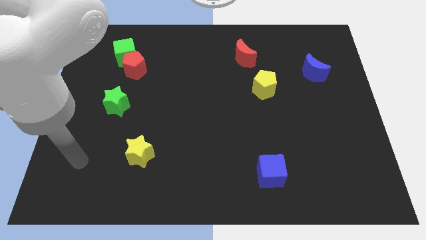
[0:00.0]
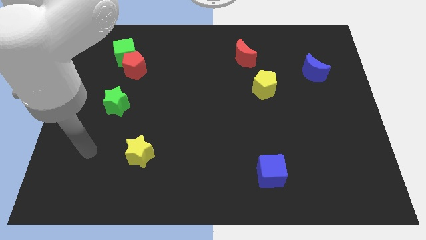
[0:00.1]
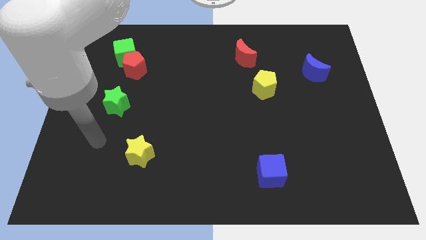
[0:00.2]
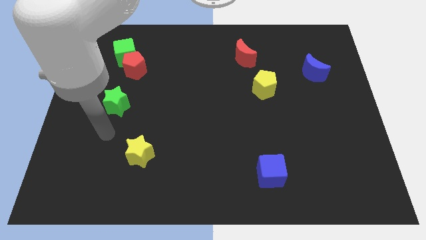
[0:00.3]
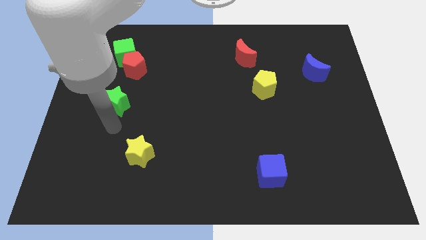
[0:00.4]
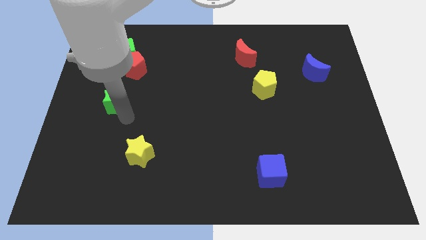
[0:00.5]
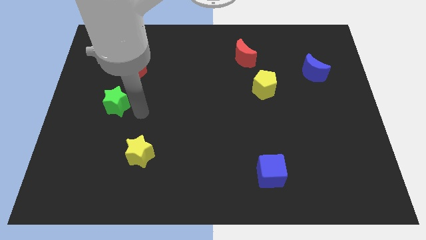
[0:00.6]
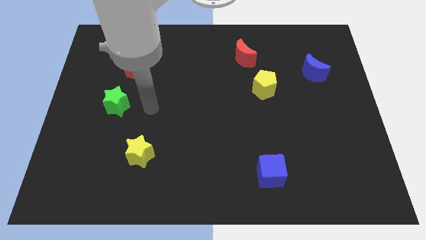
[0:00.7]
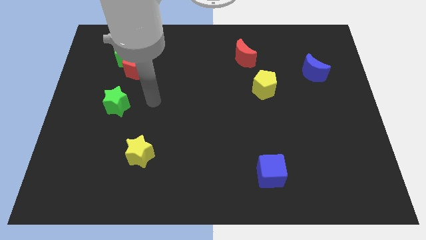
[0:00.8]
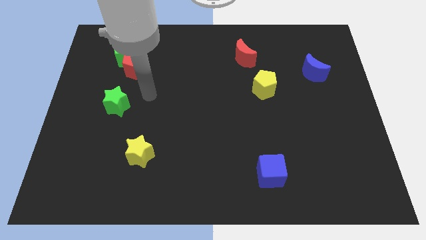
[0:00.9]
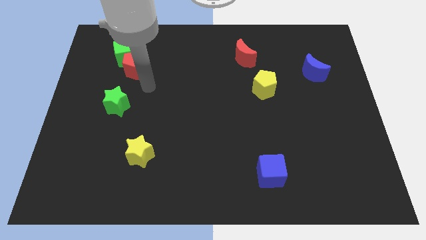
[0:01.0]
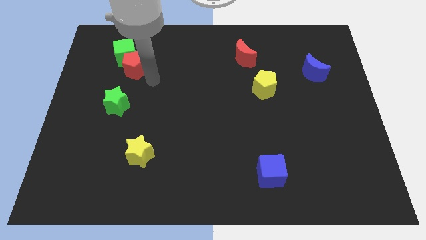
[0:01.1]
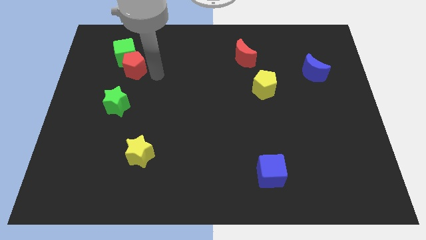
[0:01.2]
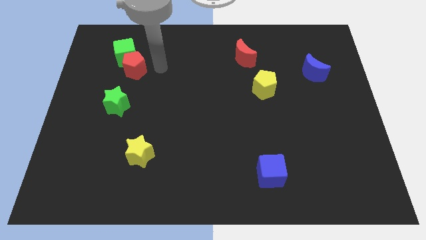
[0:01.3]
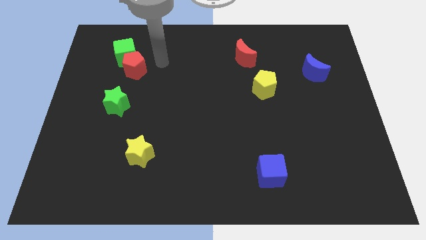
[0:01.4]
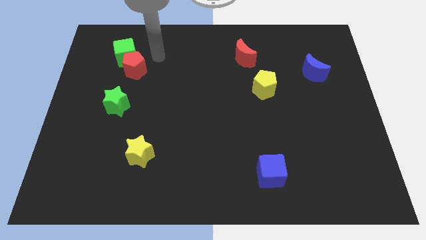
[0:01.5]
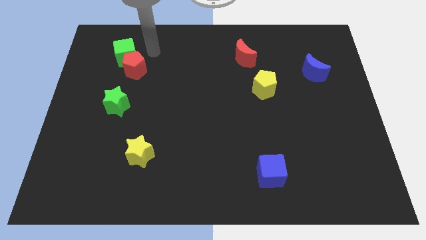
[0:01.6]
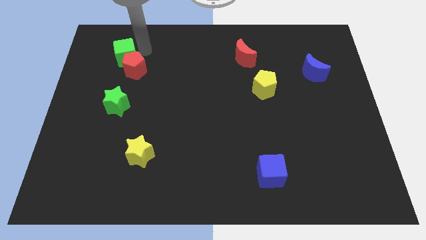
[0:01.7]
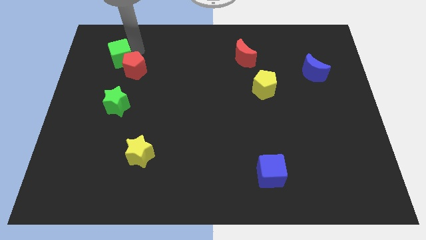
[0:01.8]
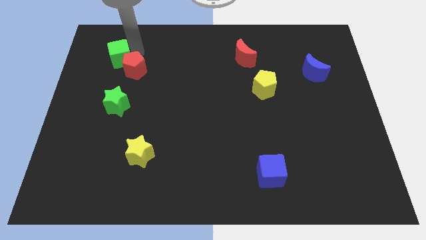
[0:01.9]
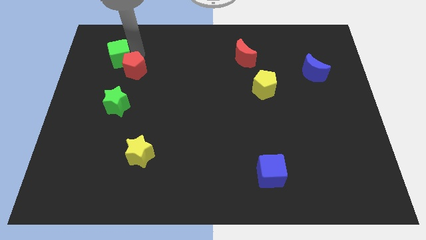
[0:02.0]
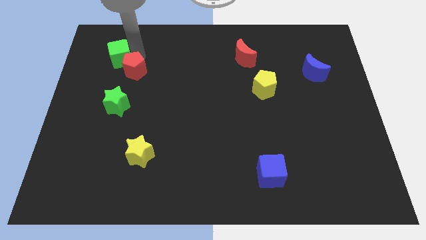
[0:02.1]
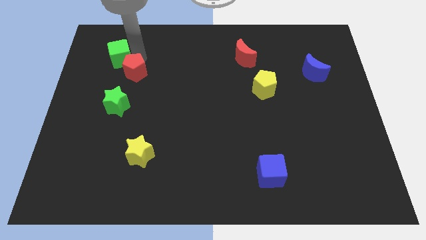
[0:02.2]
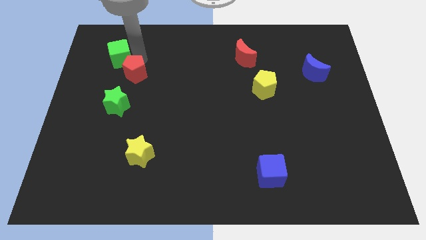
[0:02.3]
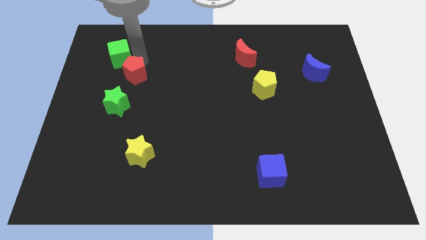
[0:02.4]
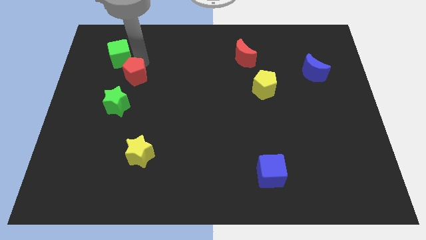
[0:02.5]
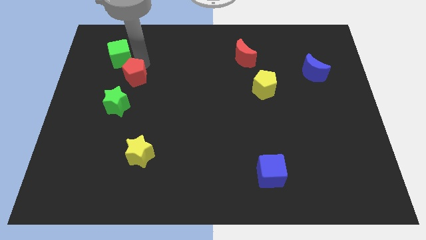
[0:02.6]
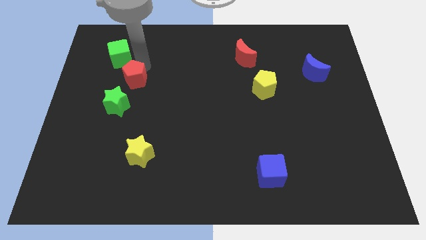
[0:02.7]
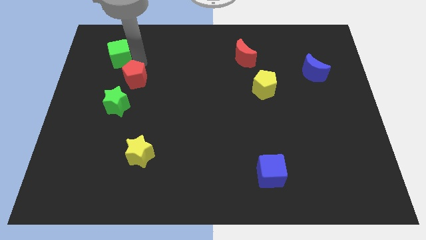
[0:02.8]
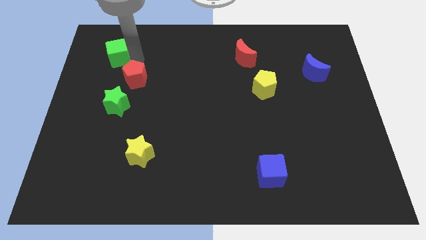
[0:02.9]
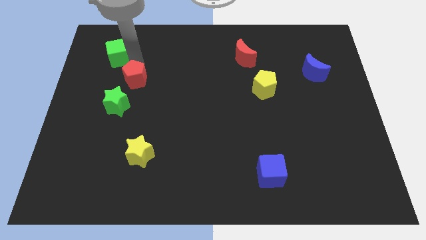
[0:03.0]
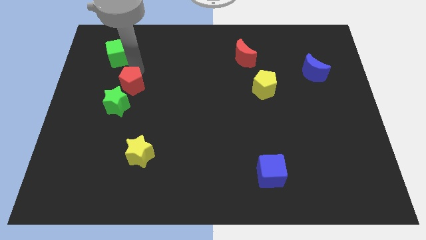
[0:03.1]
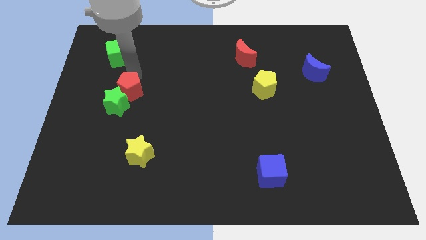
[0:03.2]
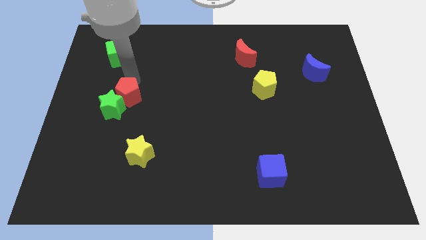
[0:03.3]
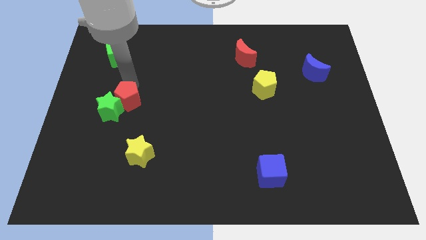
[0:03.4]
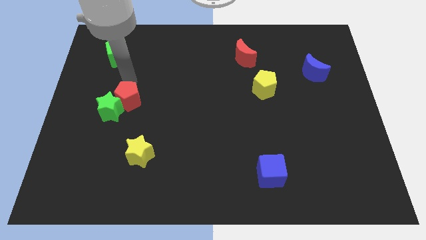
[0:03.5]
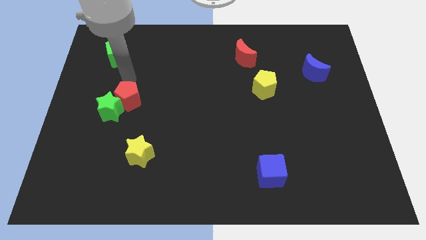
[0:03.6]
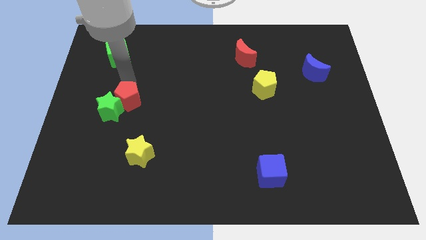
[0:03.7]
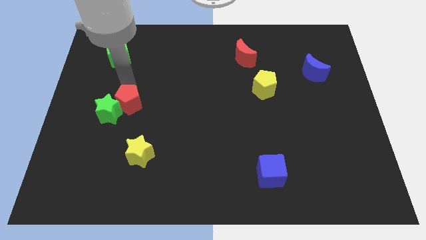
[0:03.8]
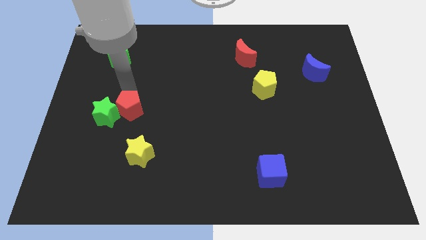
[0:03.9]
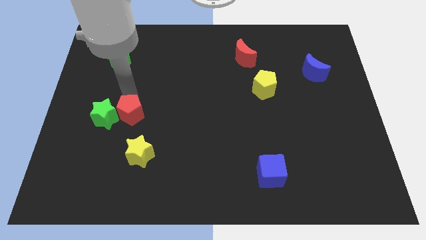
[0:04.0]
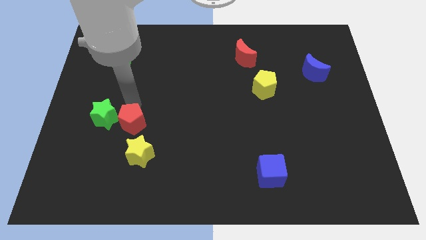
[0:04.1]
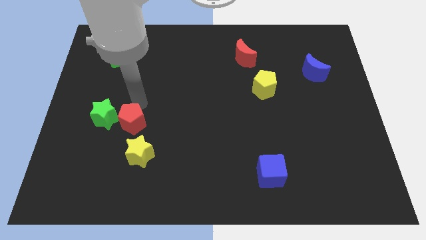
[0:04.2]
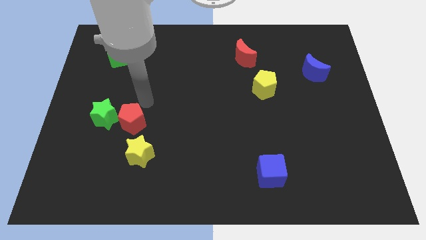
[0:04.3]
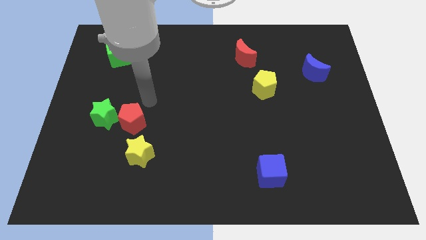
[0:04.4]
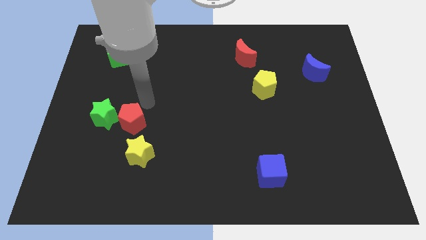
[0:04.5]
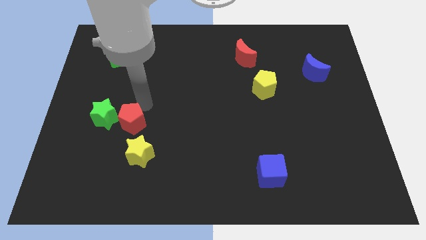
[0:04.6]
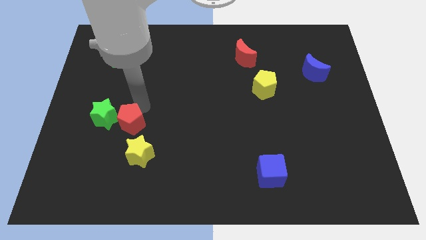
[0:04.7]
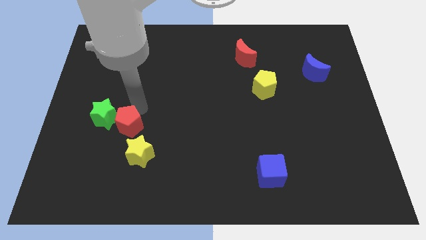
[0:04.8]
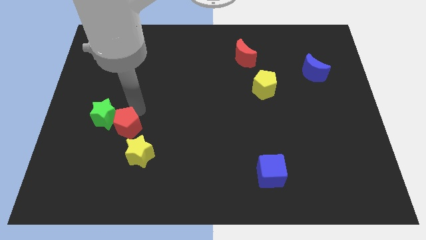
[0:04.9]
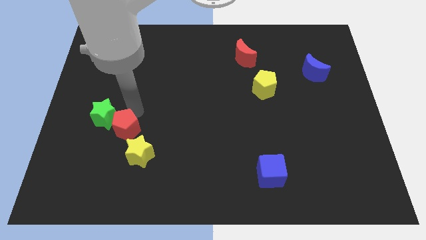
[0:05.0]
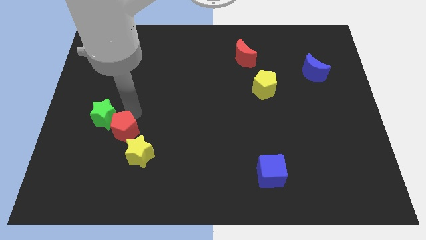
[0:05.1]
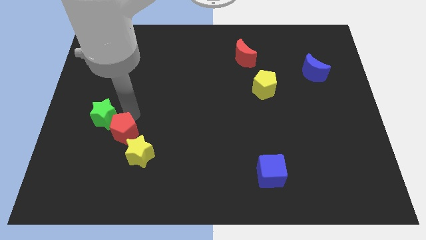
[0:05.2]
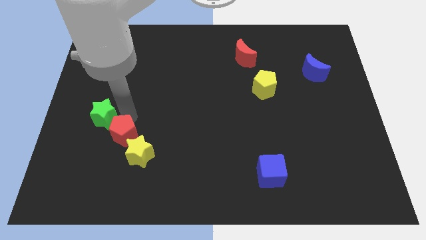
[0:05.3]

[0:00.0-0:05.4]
move the red pentagon downwards

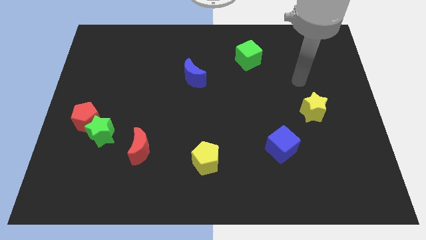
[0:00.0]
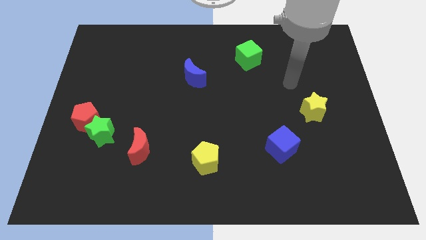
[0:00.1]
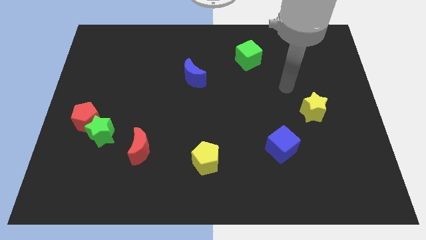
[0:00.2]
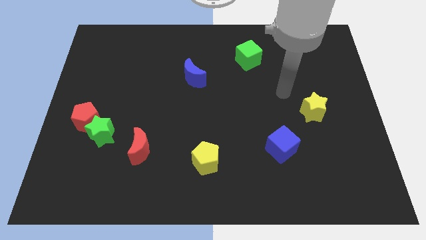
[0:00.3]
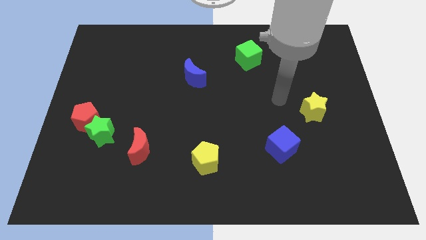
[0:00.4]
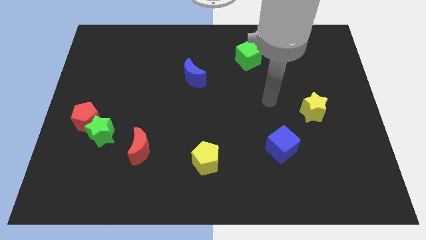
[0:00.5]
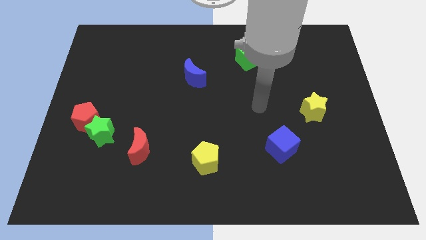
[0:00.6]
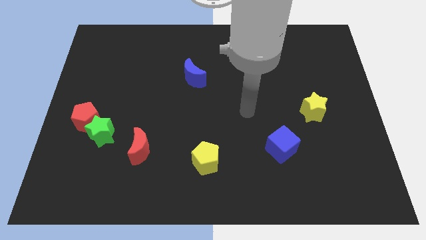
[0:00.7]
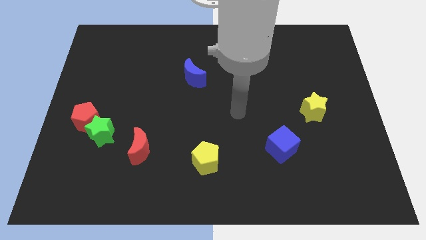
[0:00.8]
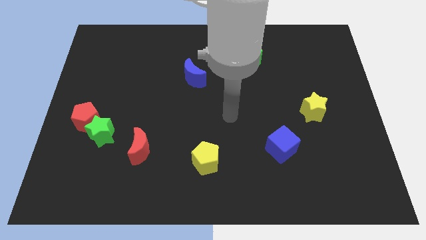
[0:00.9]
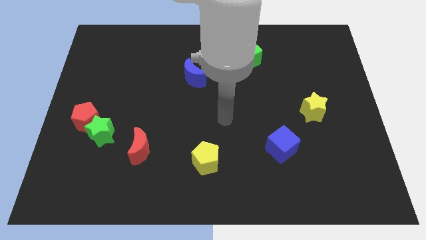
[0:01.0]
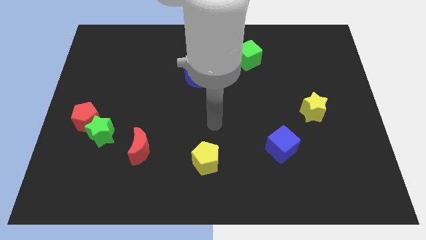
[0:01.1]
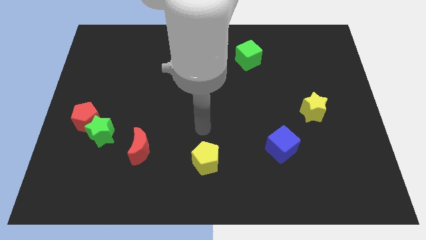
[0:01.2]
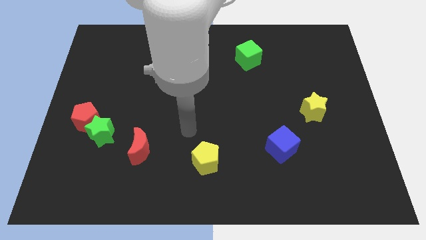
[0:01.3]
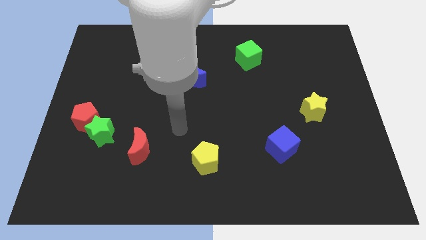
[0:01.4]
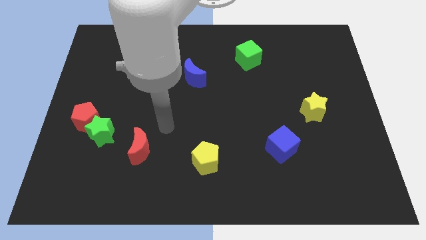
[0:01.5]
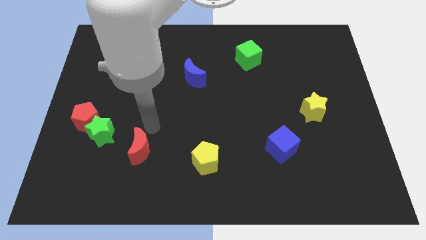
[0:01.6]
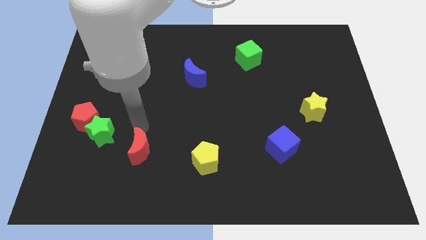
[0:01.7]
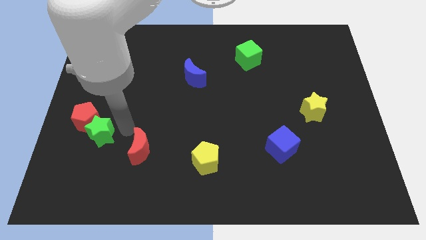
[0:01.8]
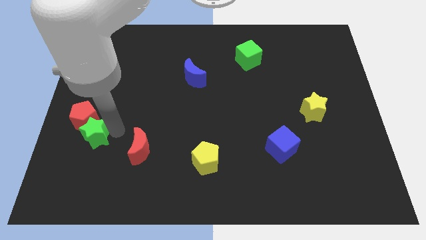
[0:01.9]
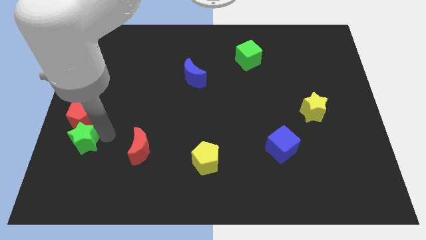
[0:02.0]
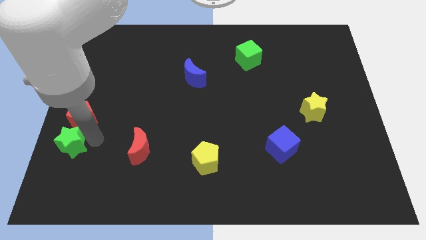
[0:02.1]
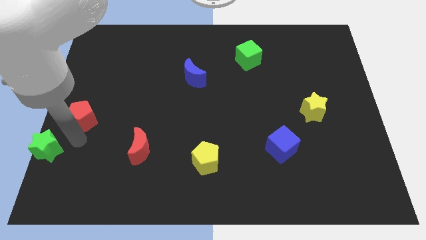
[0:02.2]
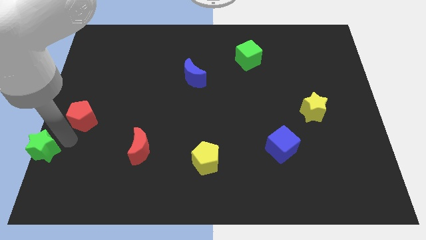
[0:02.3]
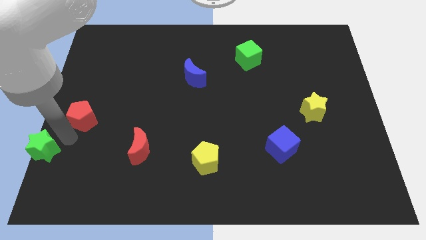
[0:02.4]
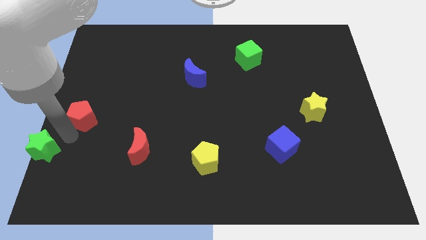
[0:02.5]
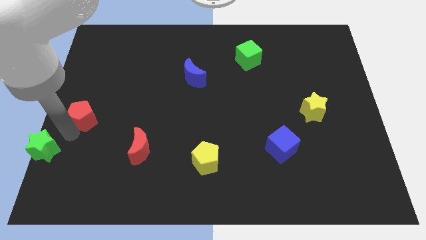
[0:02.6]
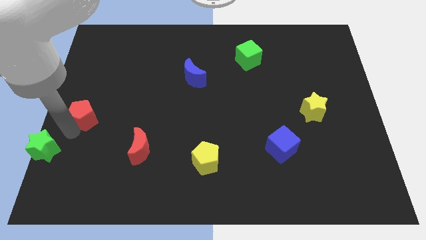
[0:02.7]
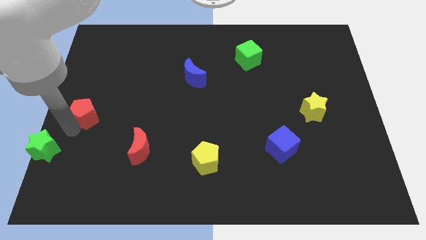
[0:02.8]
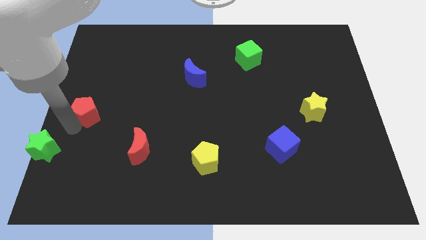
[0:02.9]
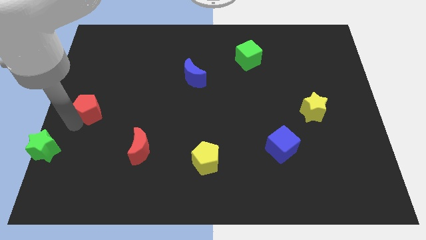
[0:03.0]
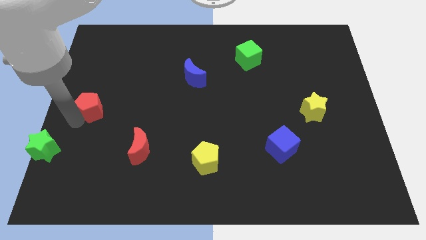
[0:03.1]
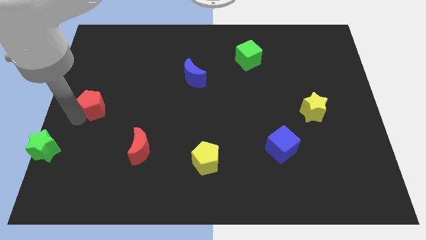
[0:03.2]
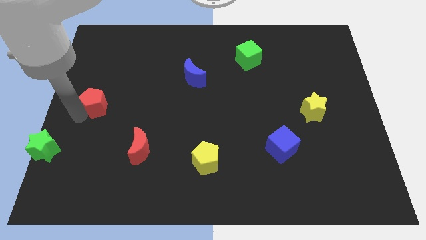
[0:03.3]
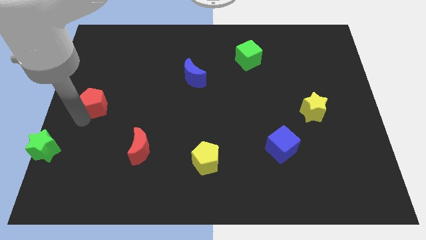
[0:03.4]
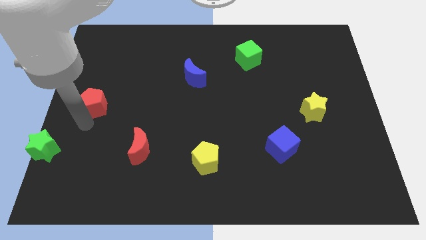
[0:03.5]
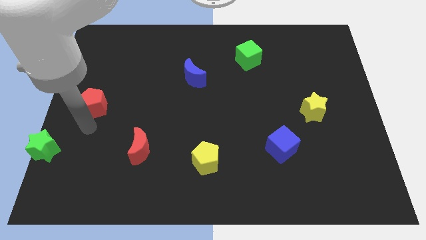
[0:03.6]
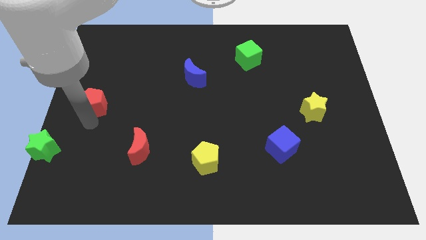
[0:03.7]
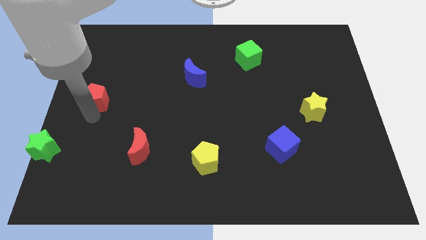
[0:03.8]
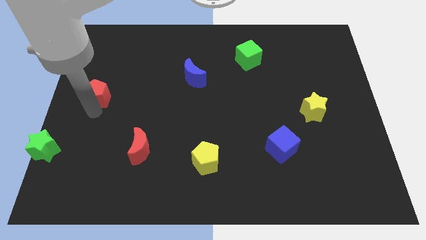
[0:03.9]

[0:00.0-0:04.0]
move the red pentagon slightly upwards
